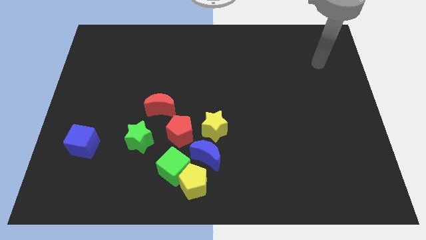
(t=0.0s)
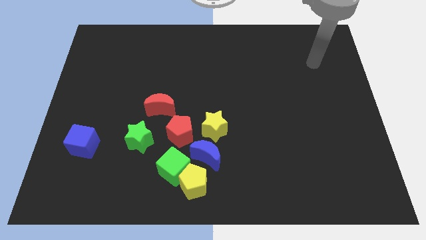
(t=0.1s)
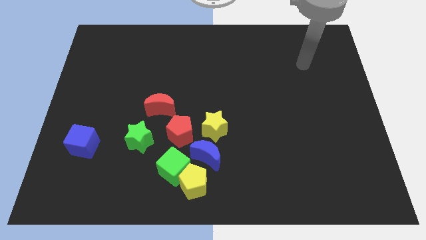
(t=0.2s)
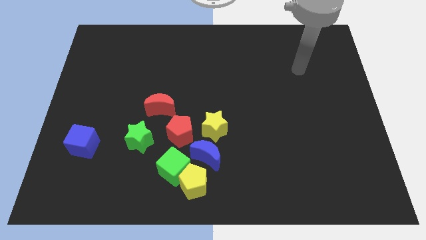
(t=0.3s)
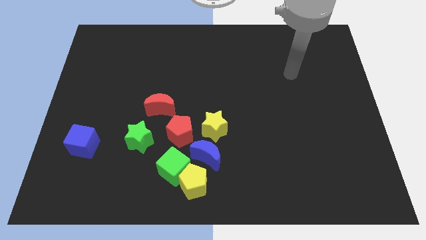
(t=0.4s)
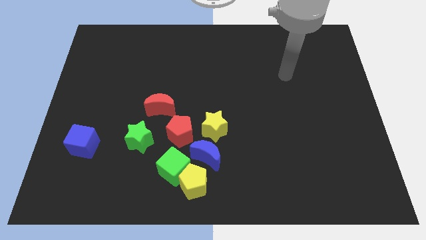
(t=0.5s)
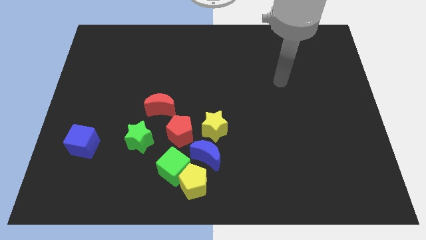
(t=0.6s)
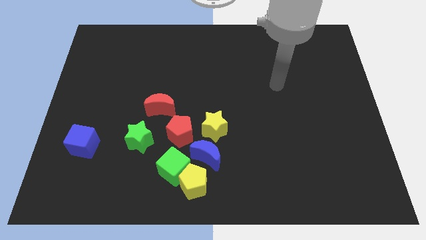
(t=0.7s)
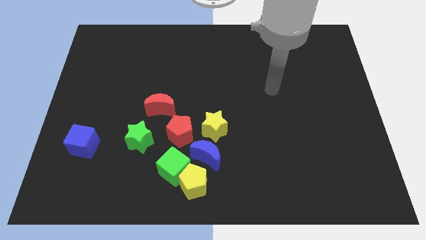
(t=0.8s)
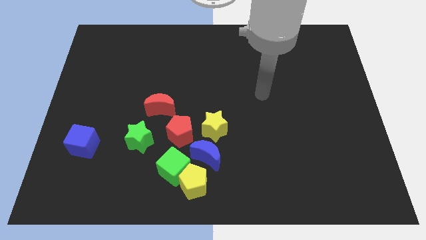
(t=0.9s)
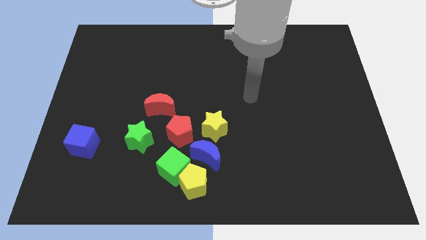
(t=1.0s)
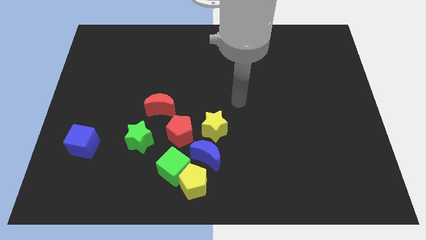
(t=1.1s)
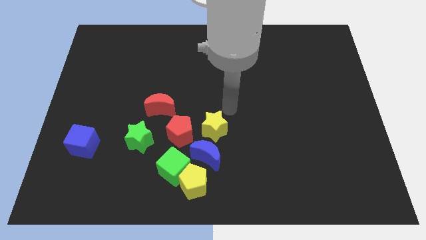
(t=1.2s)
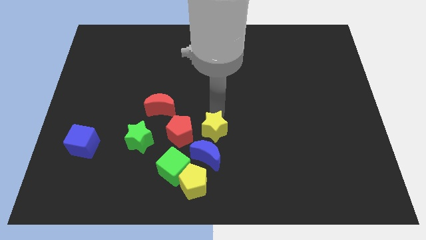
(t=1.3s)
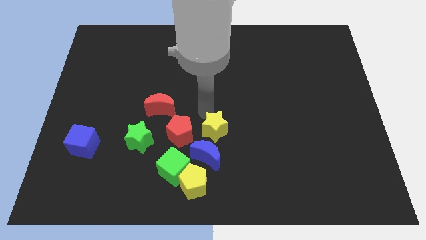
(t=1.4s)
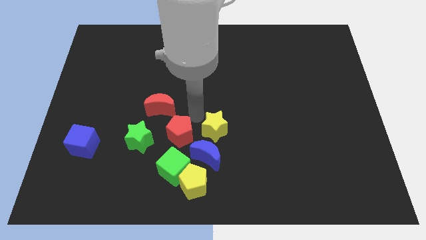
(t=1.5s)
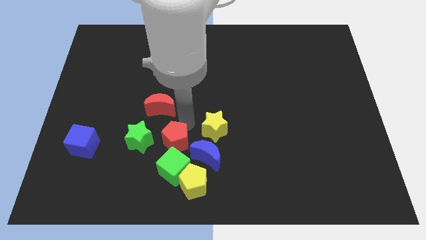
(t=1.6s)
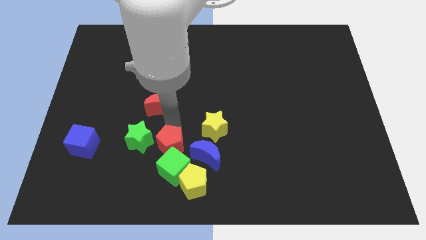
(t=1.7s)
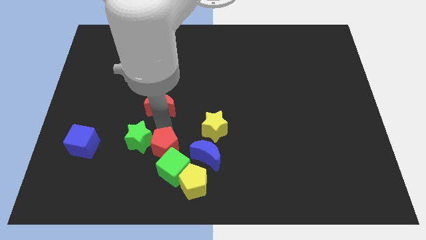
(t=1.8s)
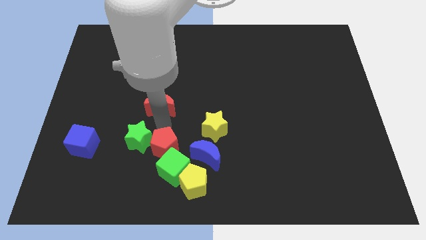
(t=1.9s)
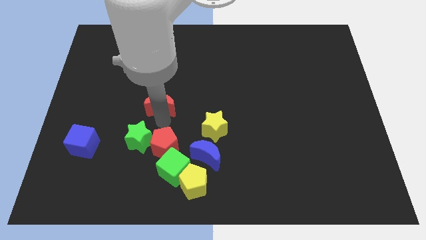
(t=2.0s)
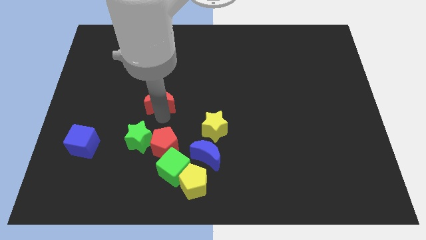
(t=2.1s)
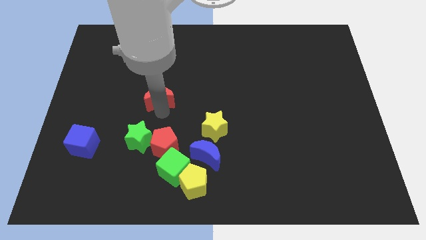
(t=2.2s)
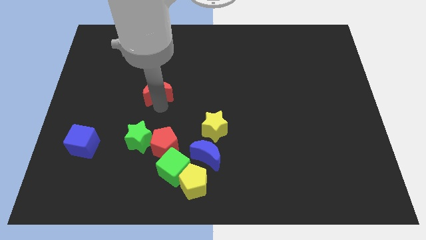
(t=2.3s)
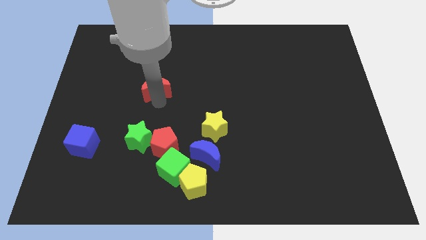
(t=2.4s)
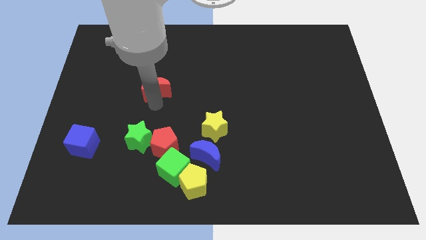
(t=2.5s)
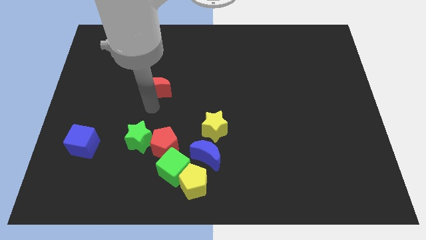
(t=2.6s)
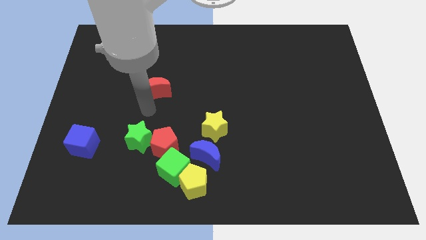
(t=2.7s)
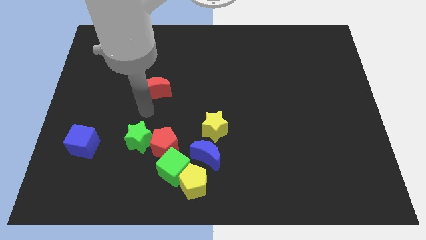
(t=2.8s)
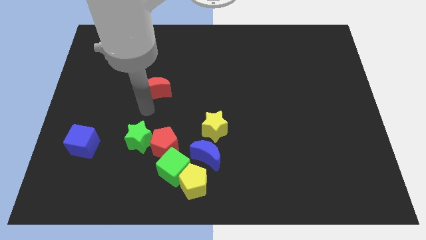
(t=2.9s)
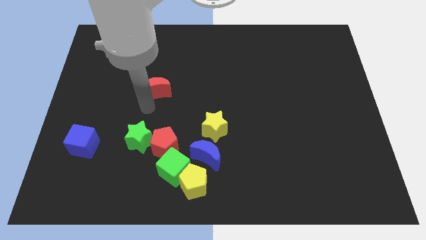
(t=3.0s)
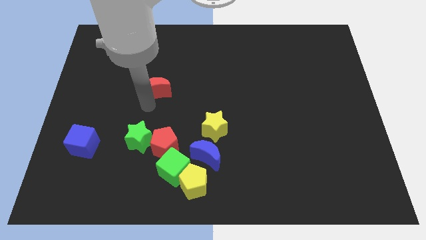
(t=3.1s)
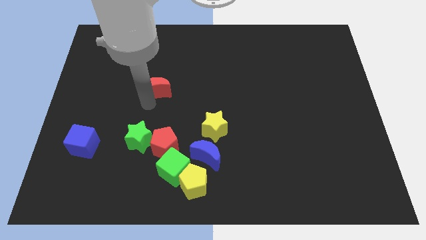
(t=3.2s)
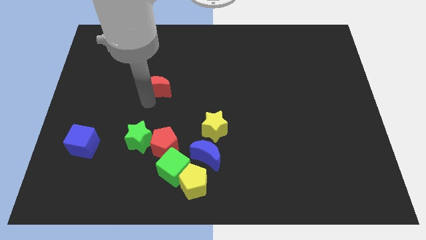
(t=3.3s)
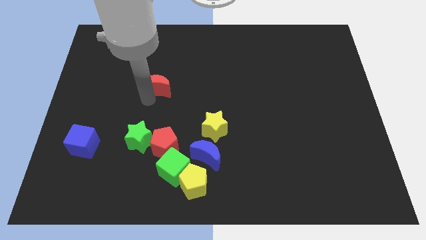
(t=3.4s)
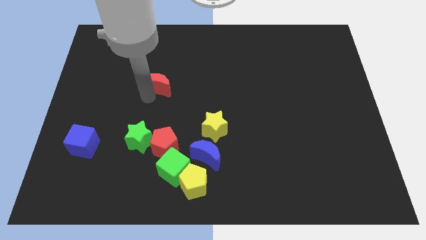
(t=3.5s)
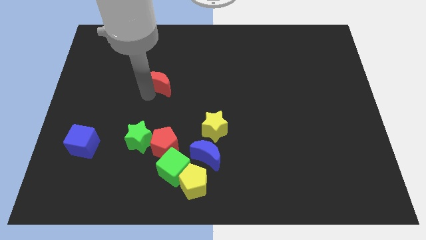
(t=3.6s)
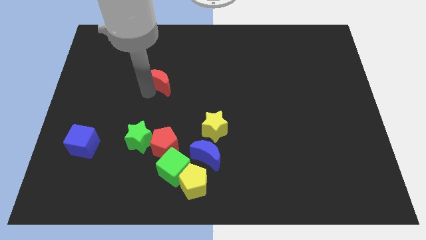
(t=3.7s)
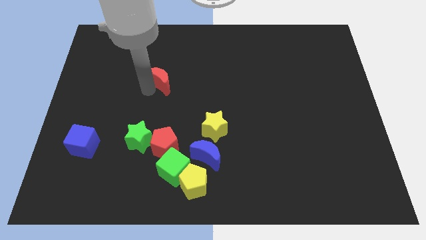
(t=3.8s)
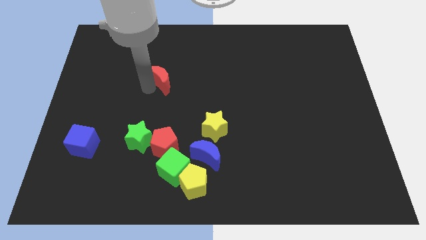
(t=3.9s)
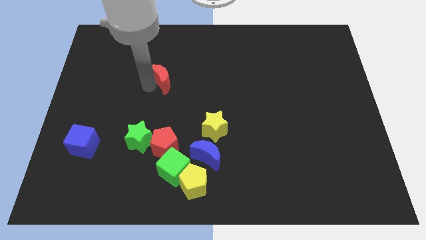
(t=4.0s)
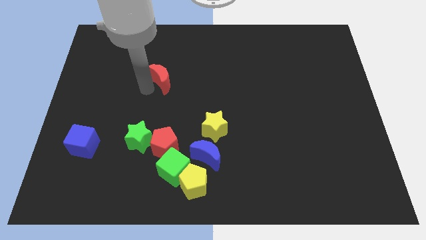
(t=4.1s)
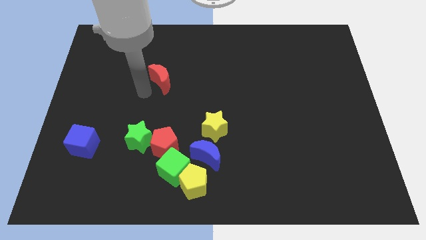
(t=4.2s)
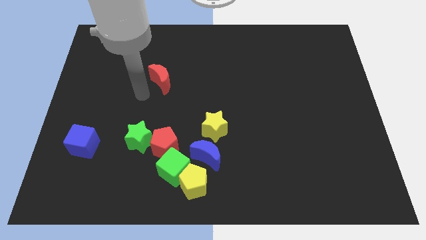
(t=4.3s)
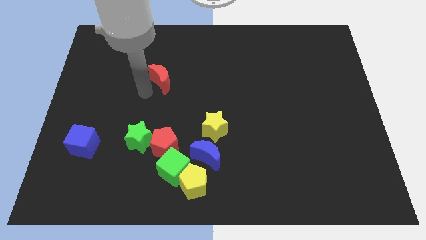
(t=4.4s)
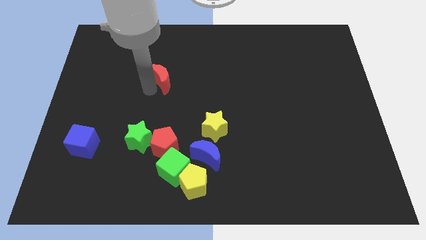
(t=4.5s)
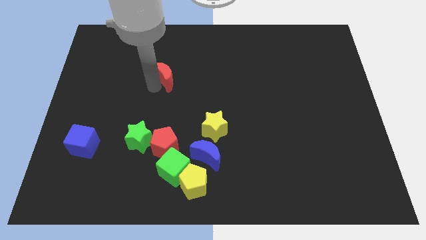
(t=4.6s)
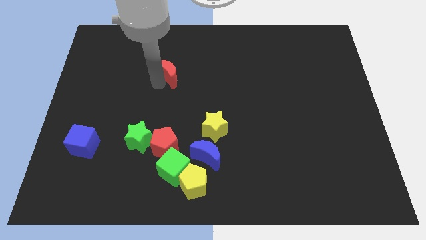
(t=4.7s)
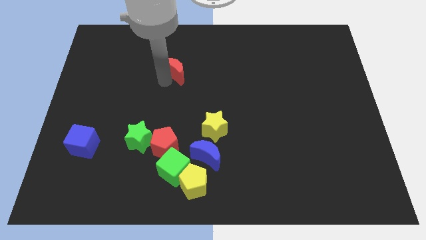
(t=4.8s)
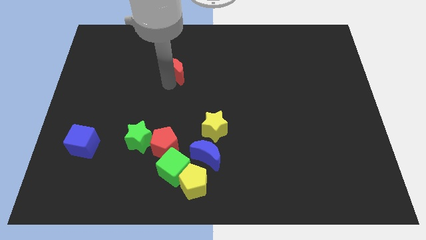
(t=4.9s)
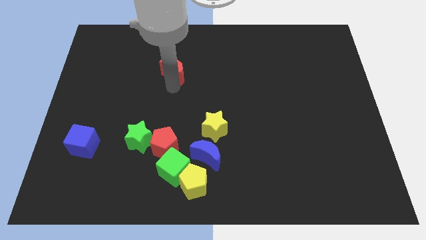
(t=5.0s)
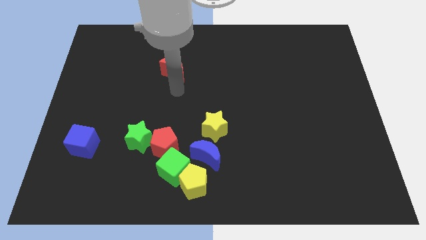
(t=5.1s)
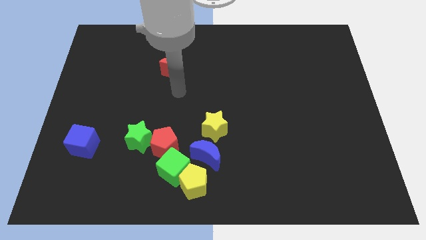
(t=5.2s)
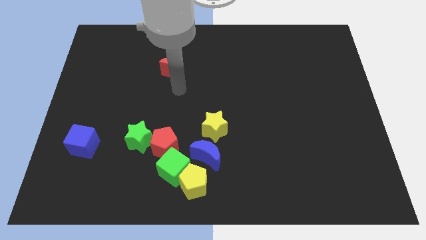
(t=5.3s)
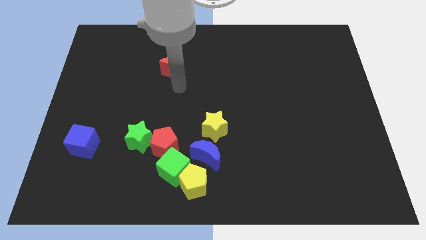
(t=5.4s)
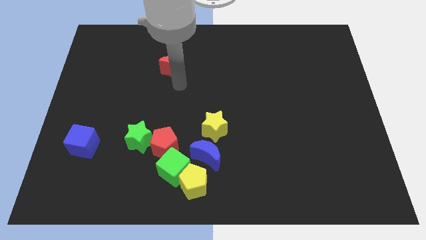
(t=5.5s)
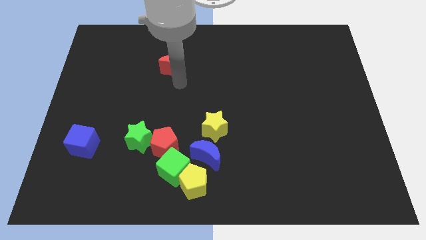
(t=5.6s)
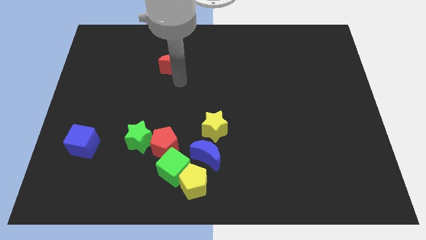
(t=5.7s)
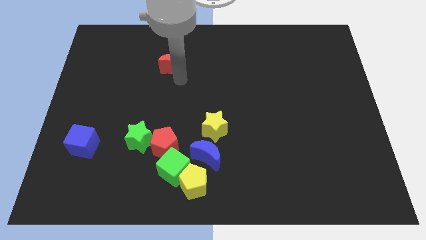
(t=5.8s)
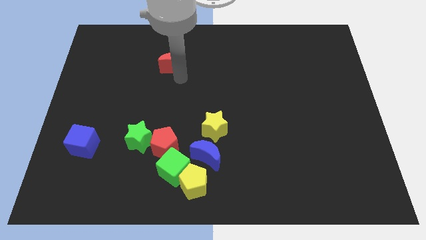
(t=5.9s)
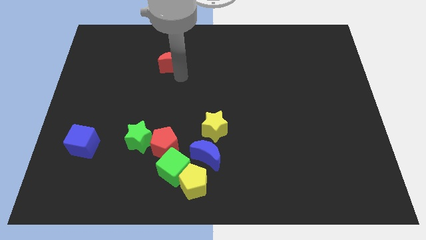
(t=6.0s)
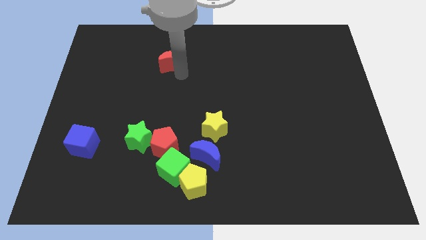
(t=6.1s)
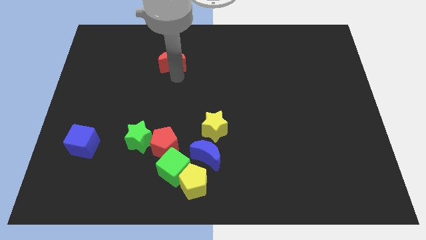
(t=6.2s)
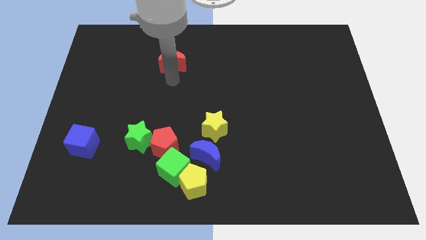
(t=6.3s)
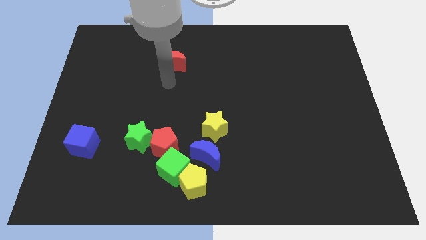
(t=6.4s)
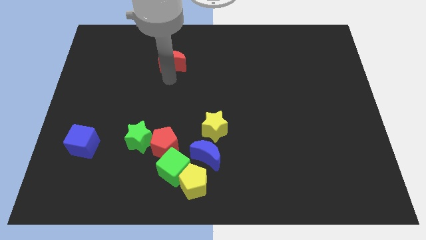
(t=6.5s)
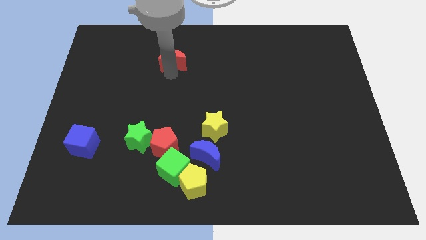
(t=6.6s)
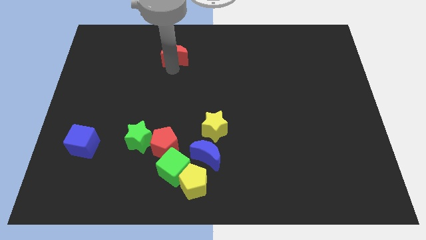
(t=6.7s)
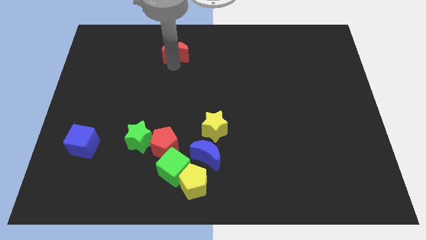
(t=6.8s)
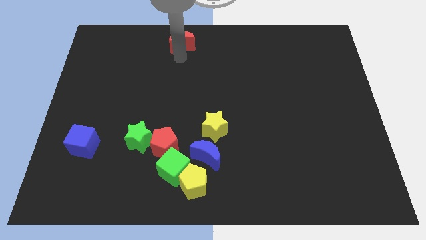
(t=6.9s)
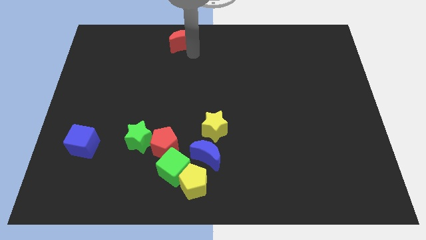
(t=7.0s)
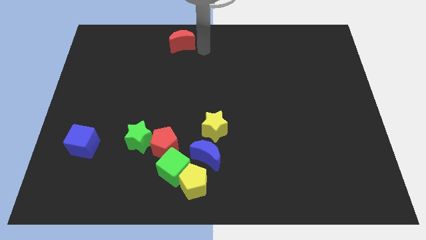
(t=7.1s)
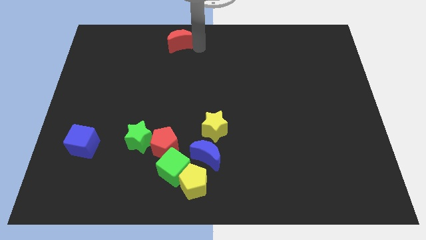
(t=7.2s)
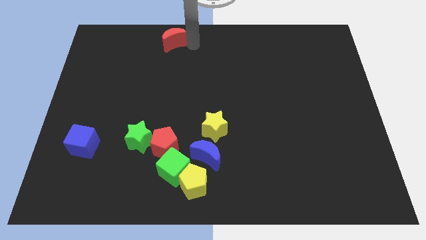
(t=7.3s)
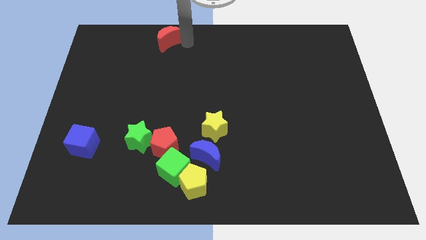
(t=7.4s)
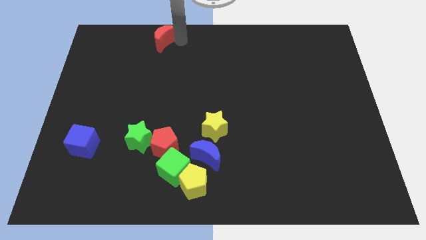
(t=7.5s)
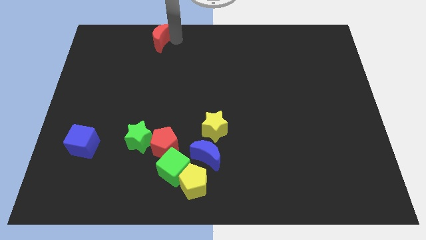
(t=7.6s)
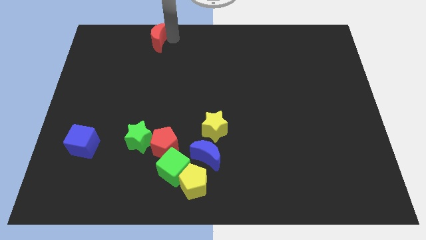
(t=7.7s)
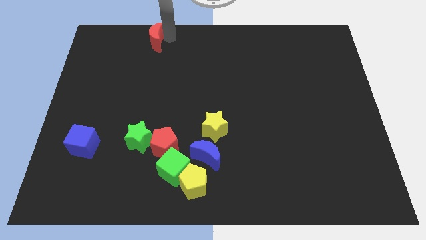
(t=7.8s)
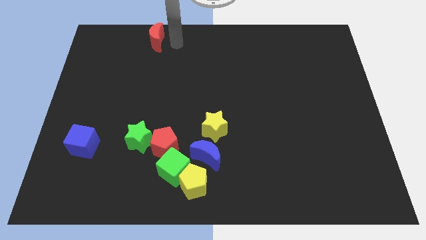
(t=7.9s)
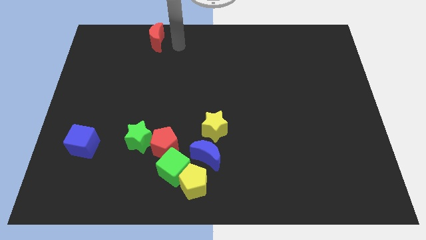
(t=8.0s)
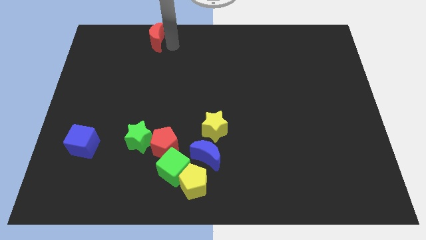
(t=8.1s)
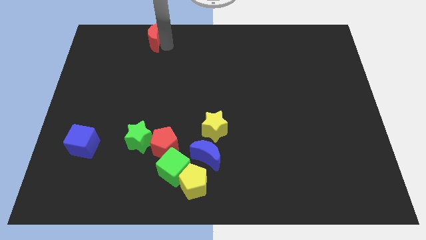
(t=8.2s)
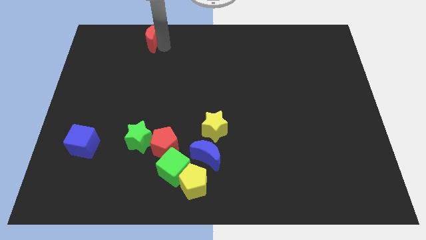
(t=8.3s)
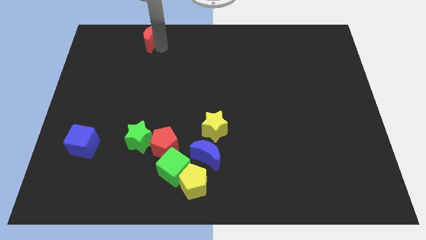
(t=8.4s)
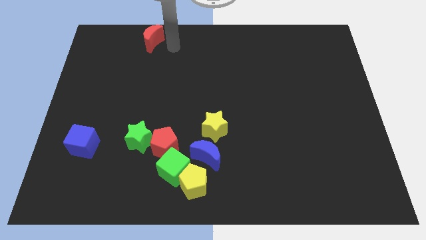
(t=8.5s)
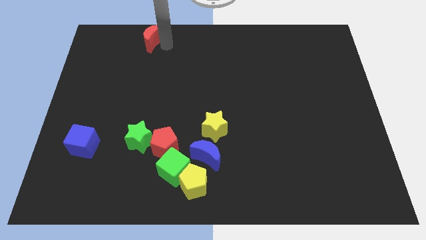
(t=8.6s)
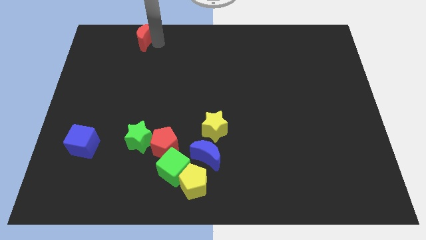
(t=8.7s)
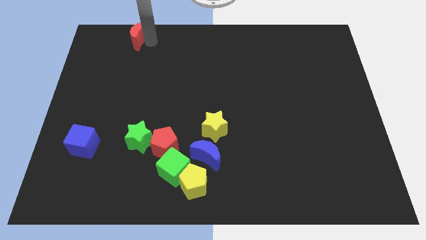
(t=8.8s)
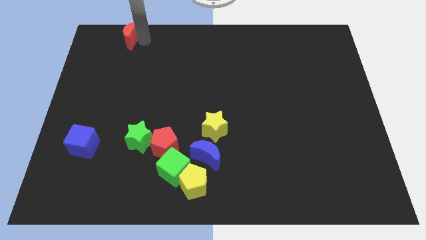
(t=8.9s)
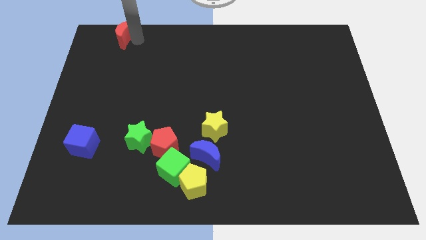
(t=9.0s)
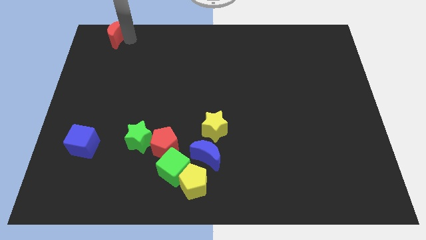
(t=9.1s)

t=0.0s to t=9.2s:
push the red moon to the upper left corner
